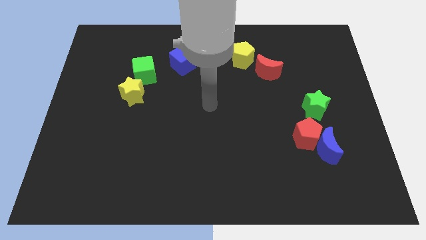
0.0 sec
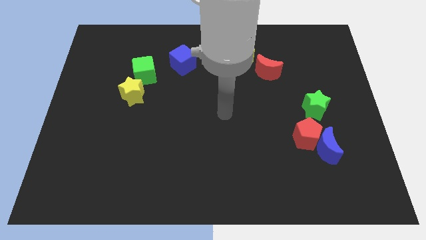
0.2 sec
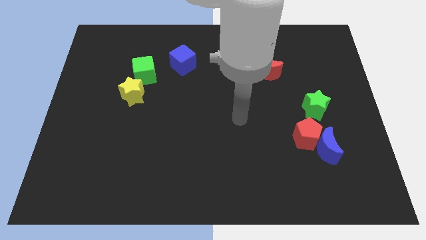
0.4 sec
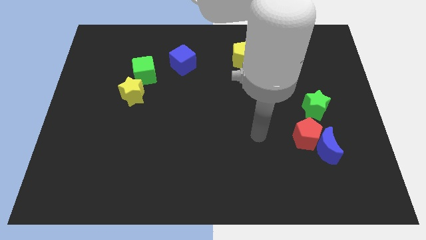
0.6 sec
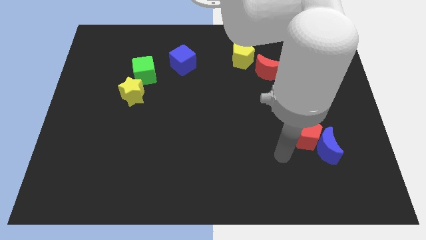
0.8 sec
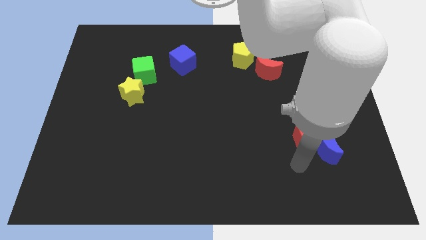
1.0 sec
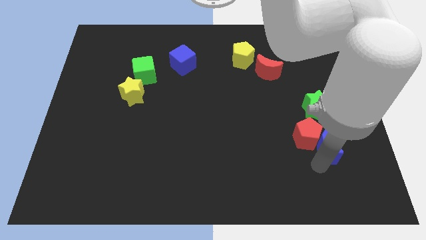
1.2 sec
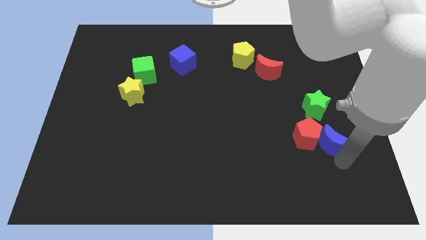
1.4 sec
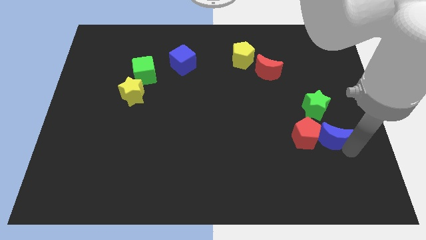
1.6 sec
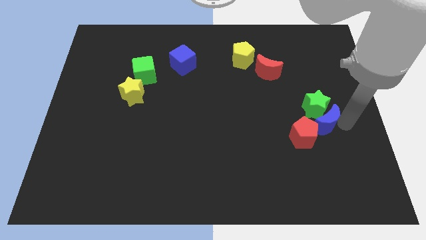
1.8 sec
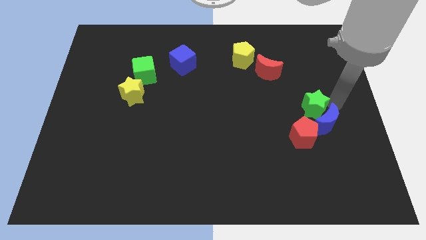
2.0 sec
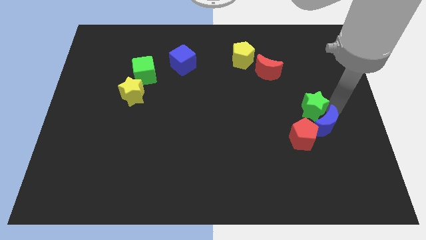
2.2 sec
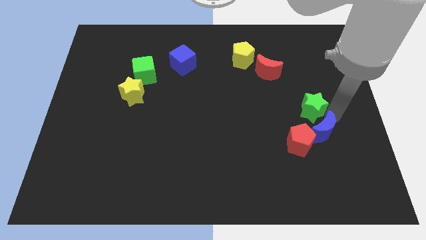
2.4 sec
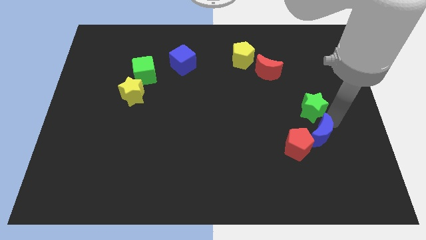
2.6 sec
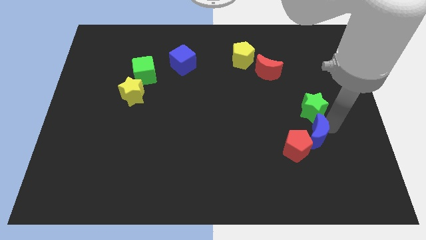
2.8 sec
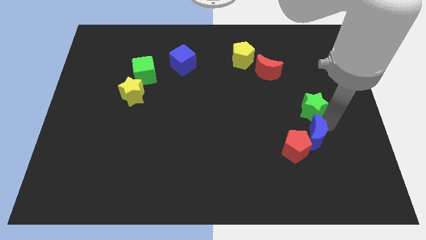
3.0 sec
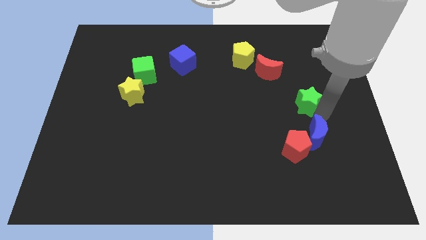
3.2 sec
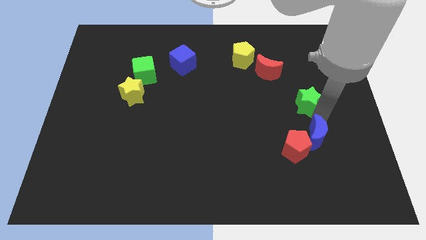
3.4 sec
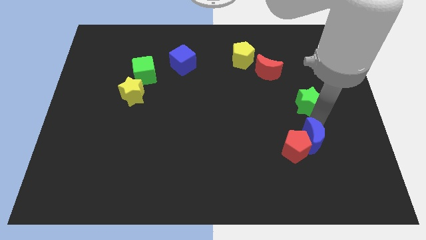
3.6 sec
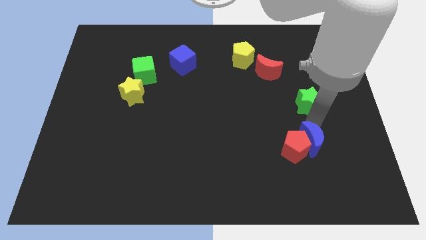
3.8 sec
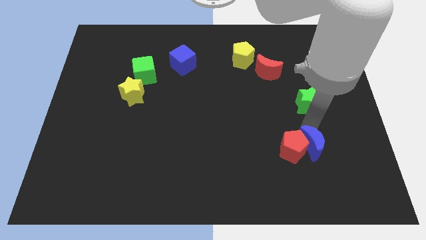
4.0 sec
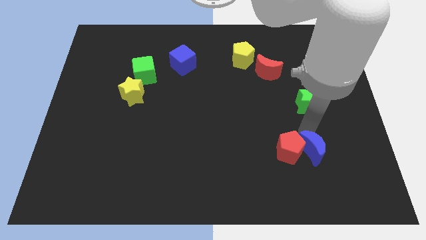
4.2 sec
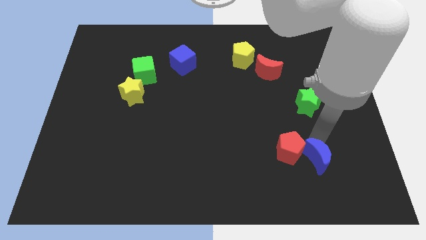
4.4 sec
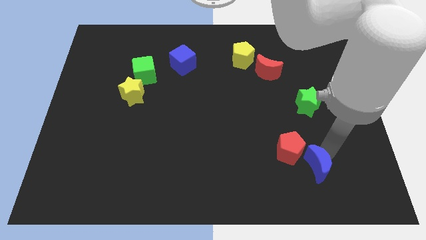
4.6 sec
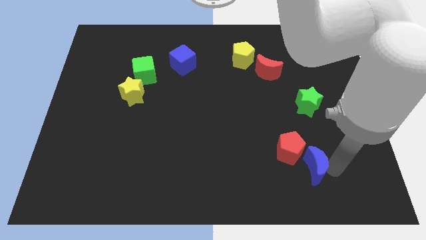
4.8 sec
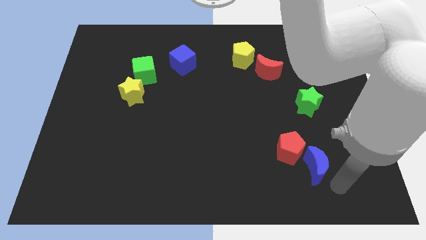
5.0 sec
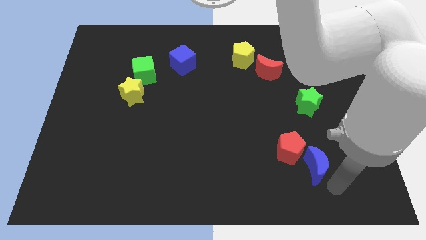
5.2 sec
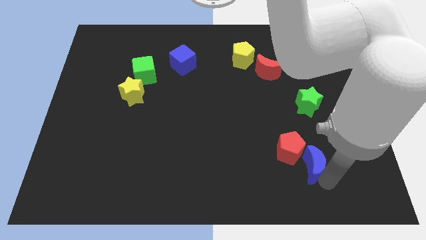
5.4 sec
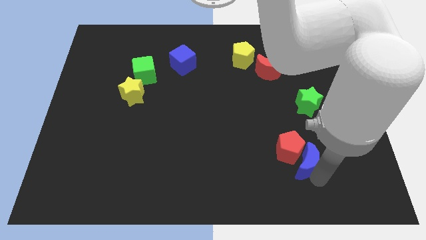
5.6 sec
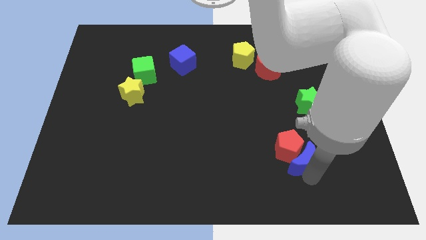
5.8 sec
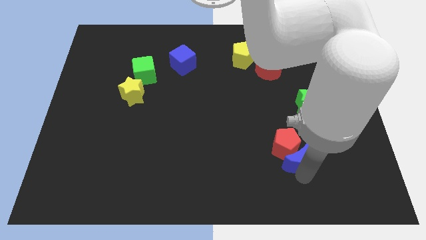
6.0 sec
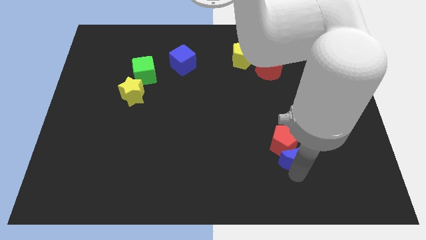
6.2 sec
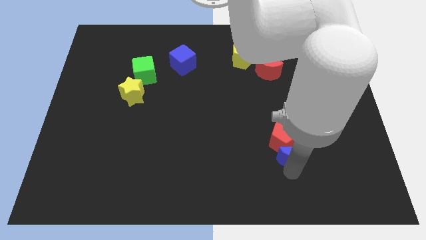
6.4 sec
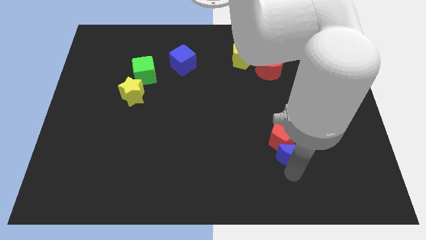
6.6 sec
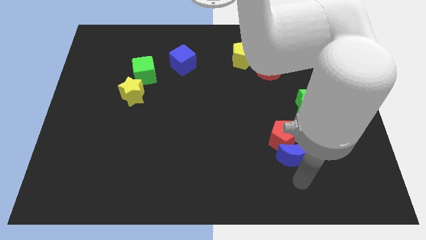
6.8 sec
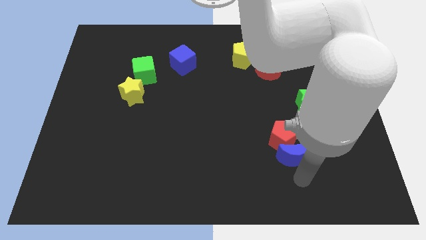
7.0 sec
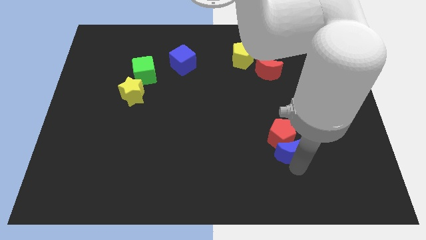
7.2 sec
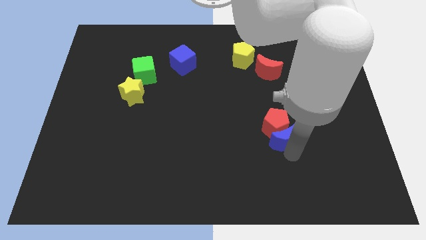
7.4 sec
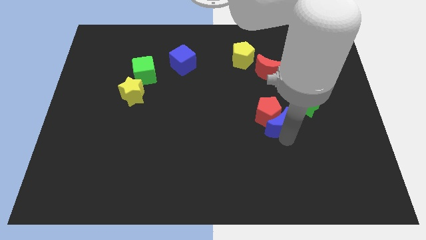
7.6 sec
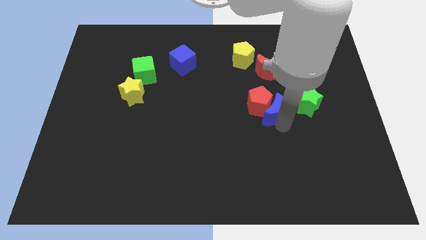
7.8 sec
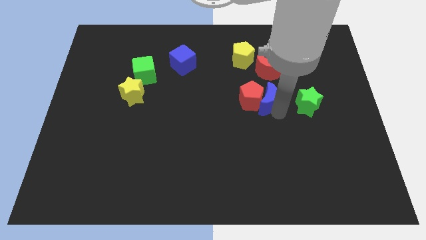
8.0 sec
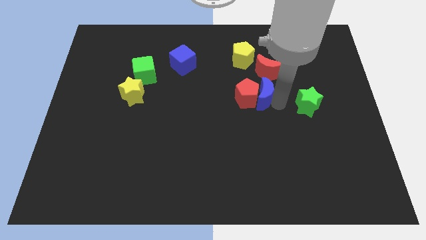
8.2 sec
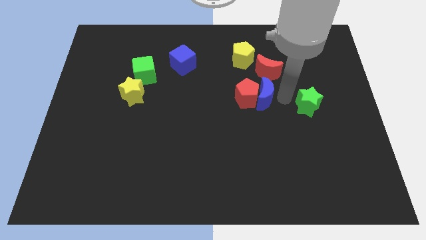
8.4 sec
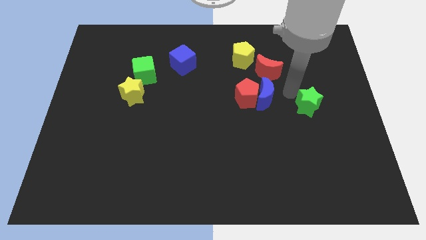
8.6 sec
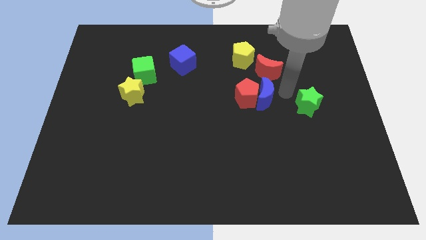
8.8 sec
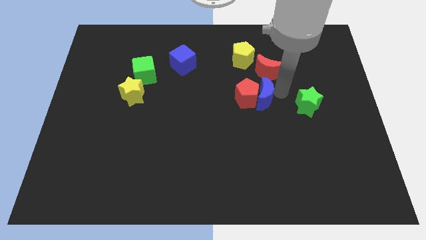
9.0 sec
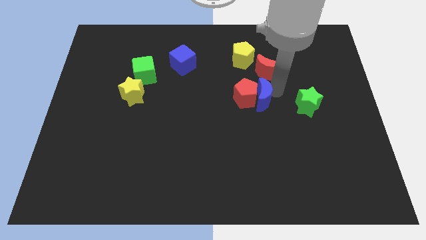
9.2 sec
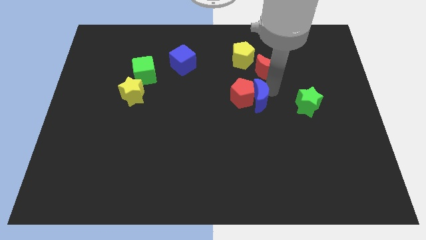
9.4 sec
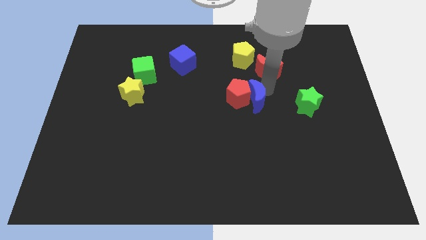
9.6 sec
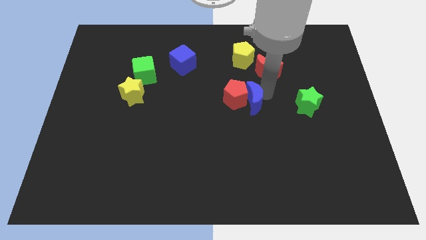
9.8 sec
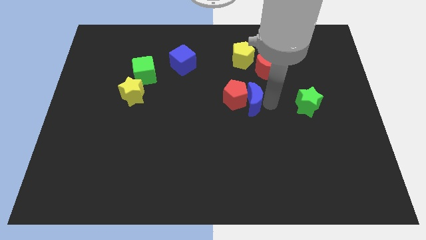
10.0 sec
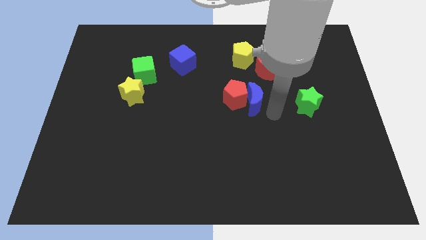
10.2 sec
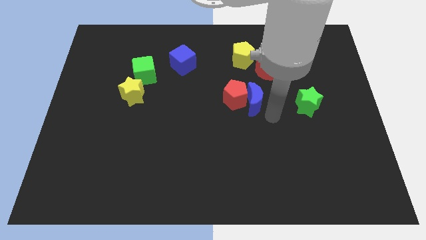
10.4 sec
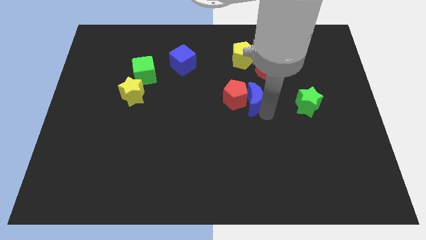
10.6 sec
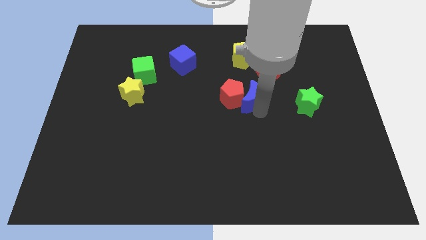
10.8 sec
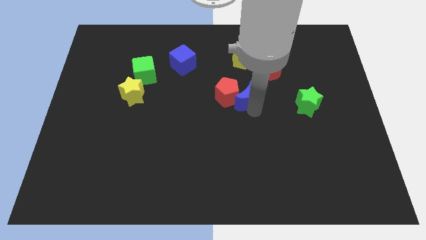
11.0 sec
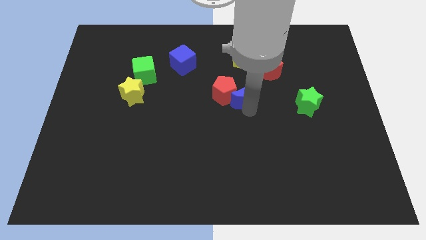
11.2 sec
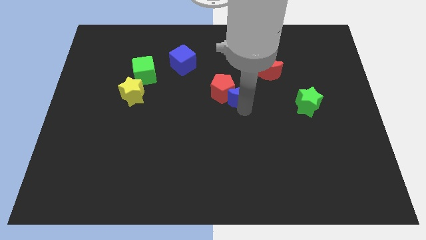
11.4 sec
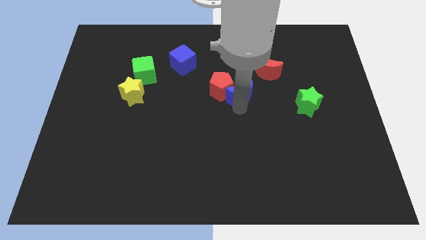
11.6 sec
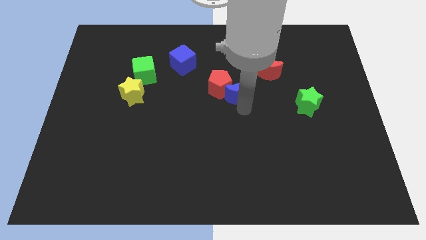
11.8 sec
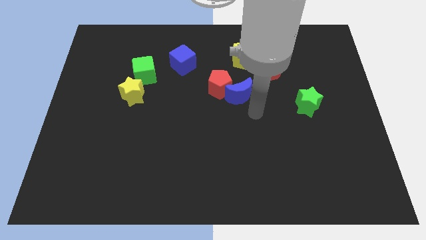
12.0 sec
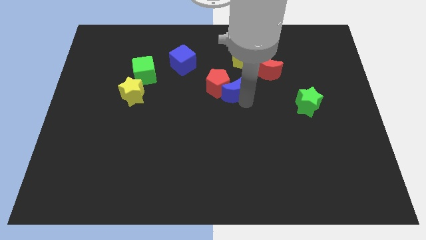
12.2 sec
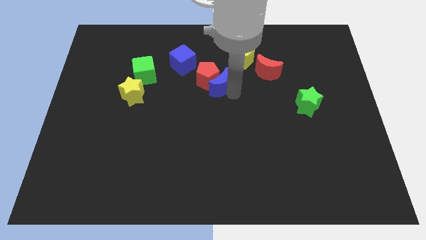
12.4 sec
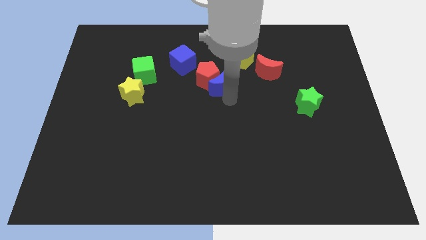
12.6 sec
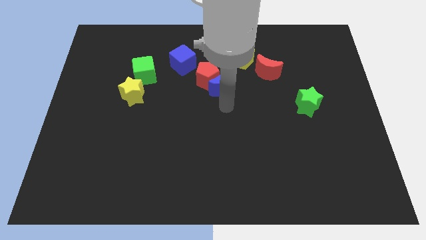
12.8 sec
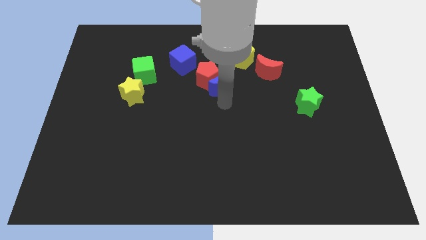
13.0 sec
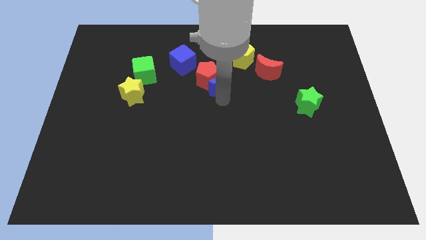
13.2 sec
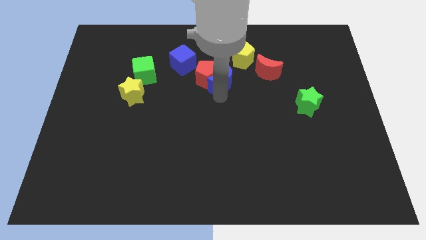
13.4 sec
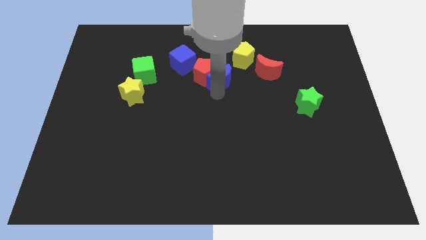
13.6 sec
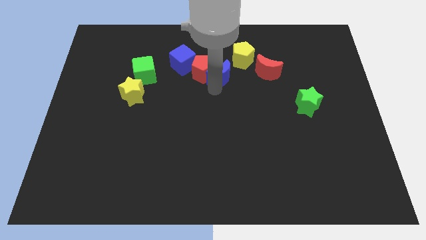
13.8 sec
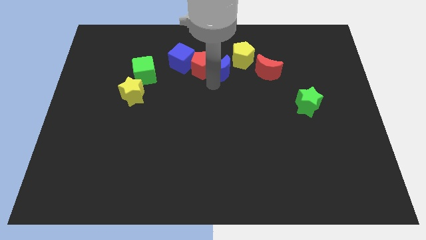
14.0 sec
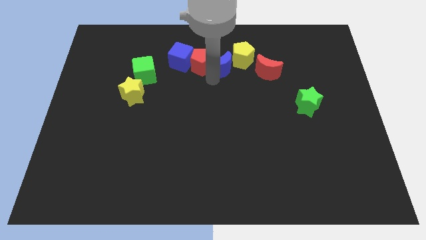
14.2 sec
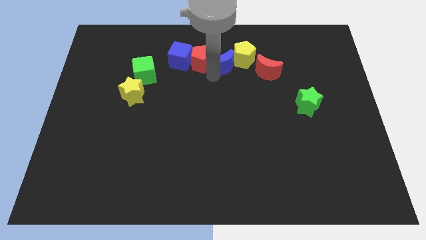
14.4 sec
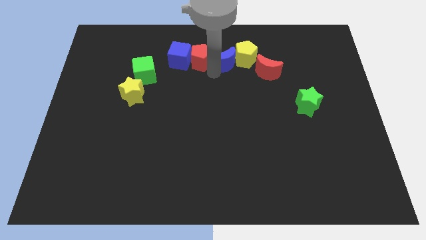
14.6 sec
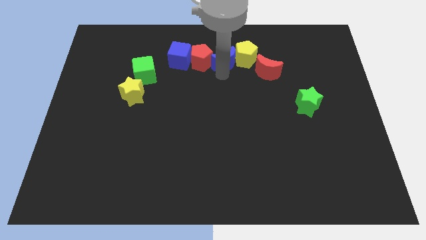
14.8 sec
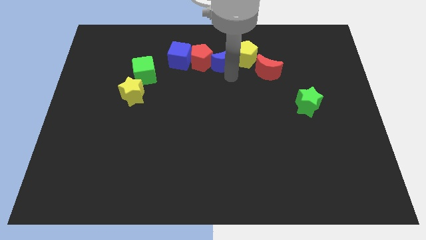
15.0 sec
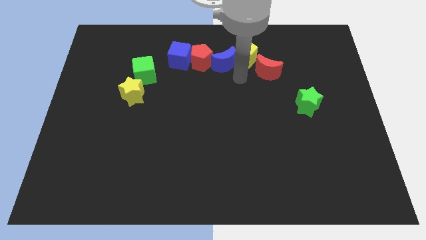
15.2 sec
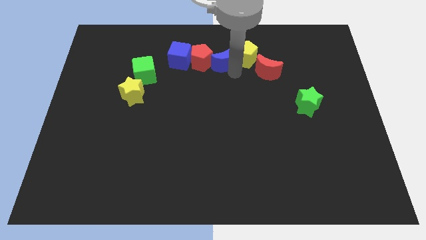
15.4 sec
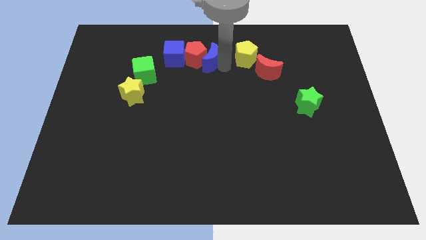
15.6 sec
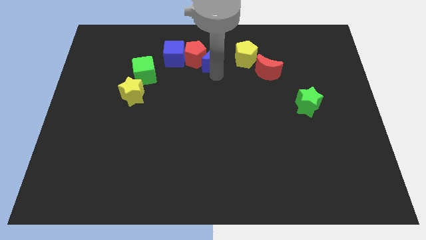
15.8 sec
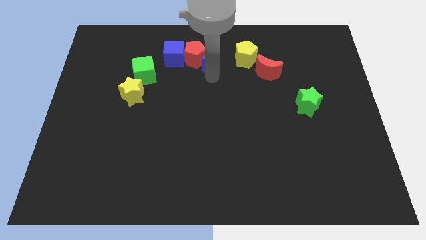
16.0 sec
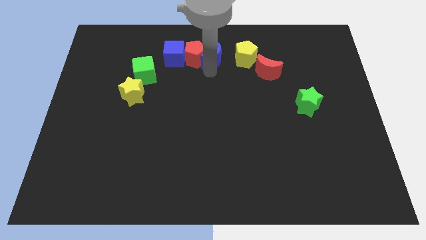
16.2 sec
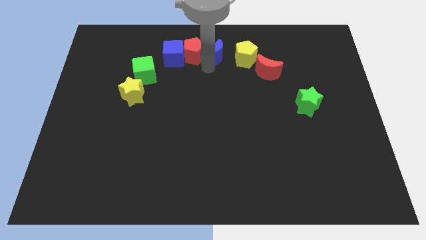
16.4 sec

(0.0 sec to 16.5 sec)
slide the blue moon to the top side
